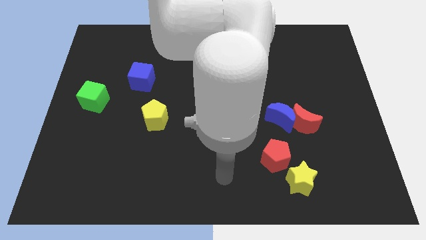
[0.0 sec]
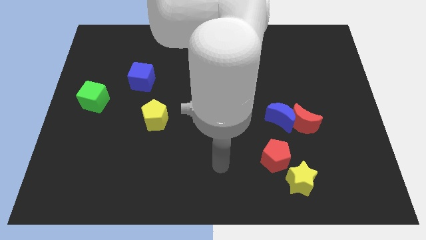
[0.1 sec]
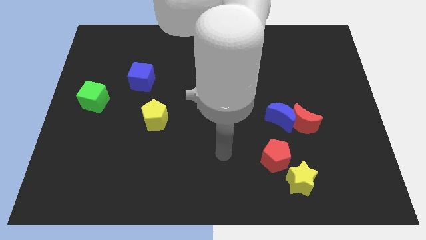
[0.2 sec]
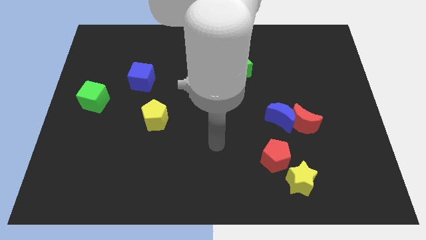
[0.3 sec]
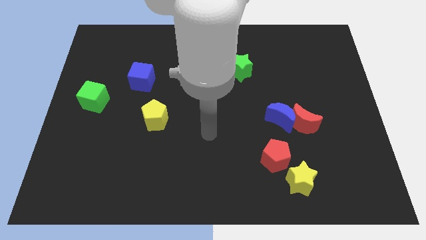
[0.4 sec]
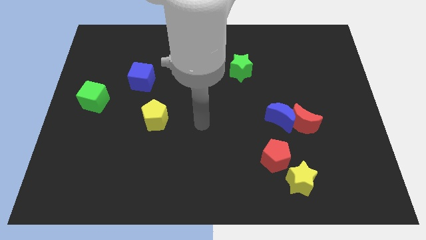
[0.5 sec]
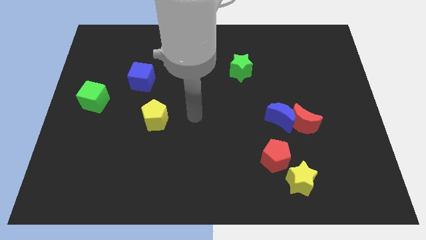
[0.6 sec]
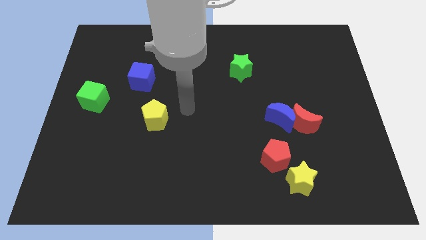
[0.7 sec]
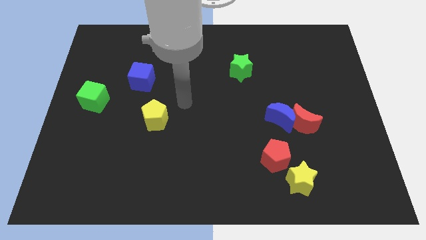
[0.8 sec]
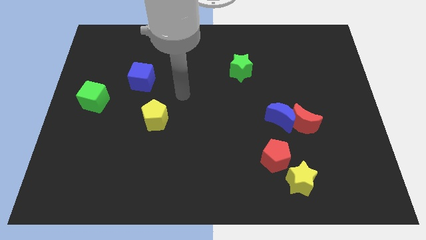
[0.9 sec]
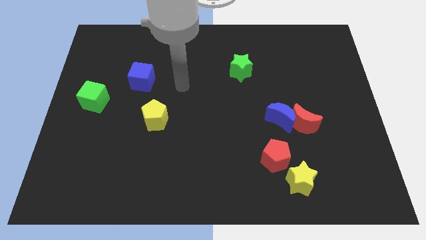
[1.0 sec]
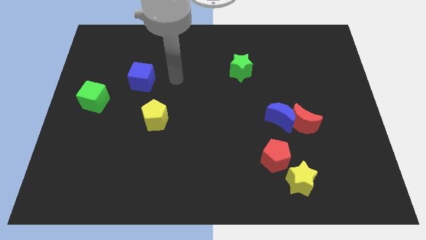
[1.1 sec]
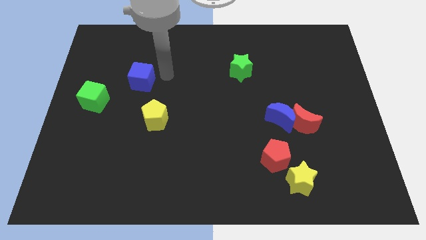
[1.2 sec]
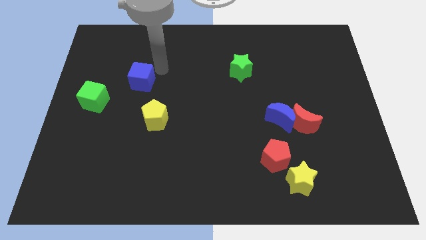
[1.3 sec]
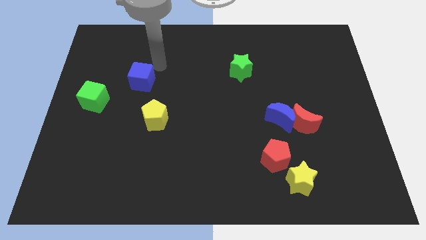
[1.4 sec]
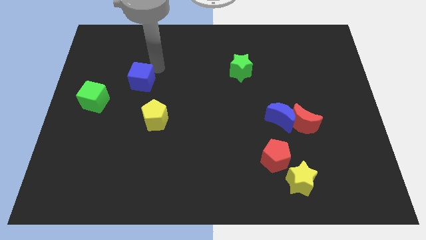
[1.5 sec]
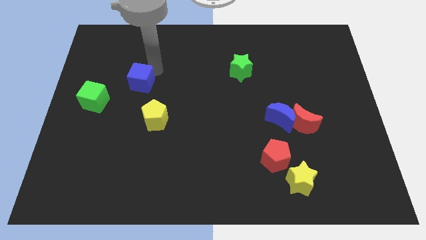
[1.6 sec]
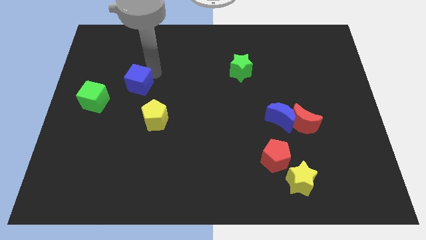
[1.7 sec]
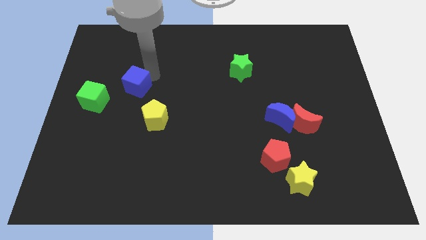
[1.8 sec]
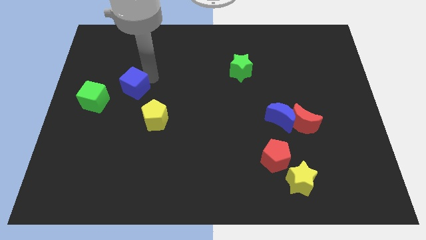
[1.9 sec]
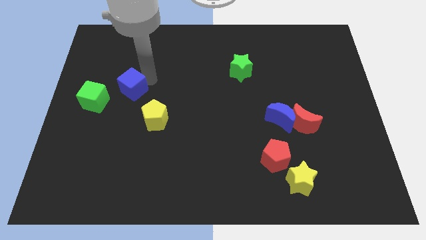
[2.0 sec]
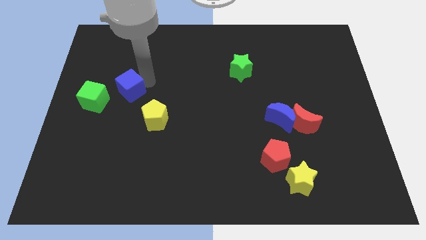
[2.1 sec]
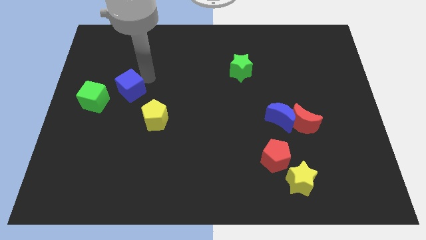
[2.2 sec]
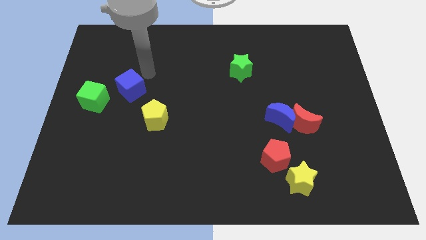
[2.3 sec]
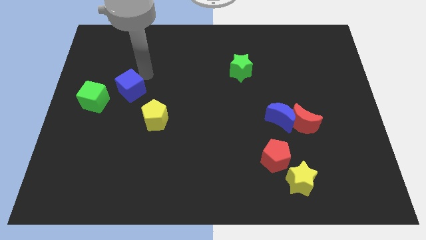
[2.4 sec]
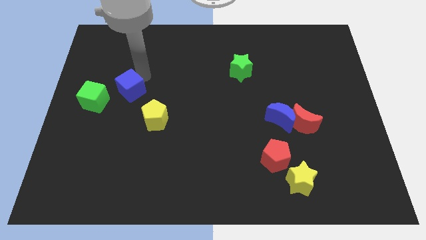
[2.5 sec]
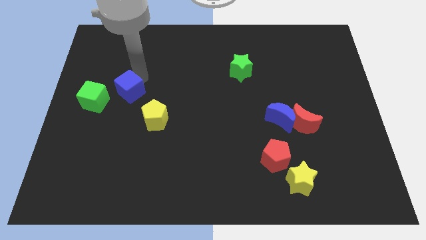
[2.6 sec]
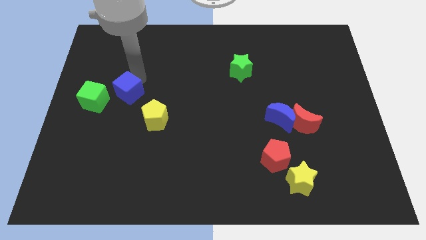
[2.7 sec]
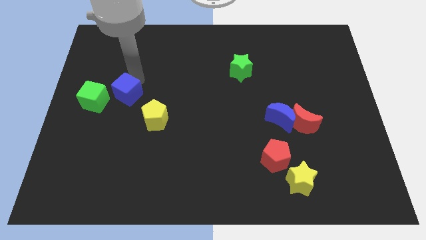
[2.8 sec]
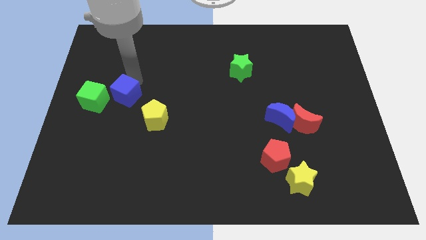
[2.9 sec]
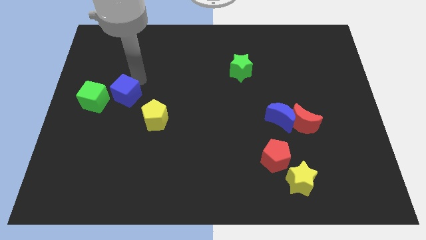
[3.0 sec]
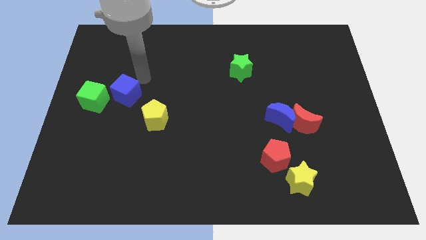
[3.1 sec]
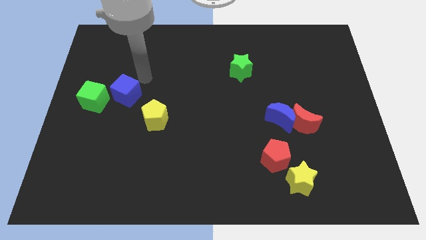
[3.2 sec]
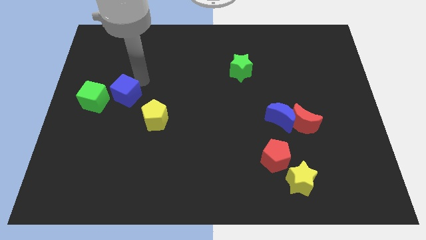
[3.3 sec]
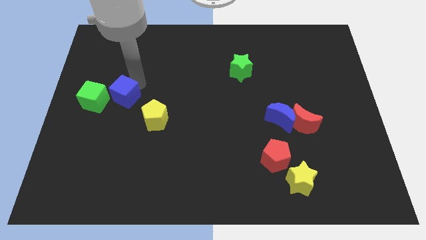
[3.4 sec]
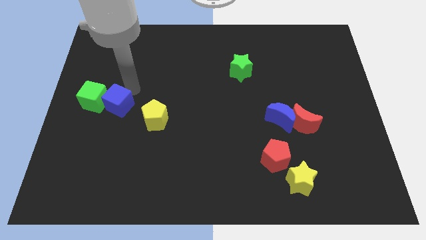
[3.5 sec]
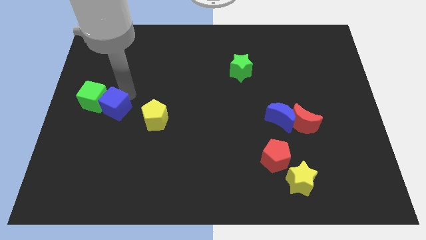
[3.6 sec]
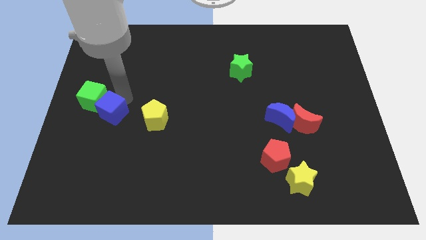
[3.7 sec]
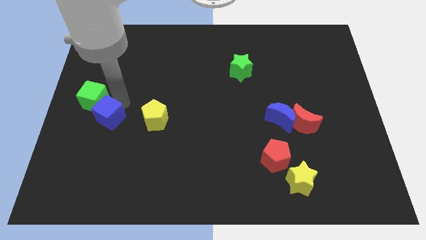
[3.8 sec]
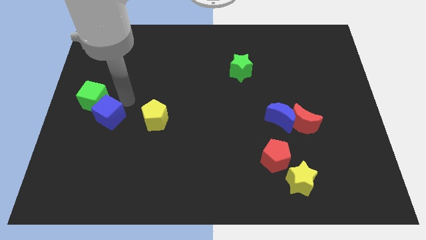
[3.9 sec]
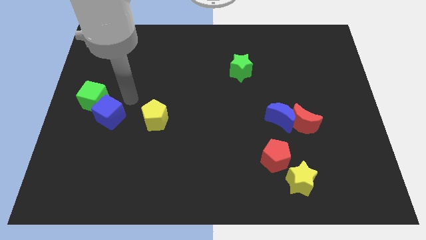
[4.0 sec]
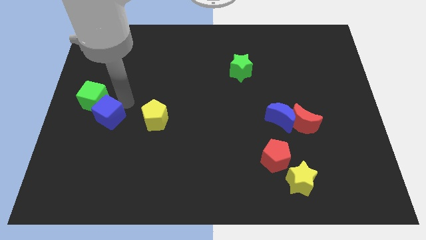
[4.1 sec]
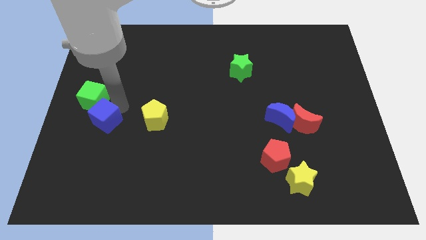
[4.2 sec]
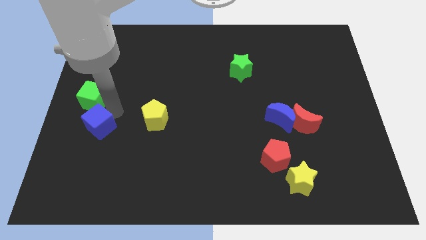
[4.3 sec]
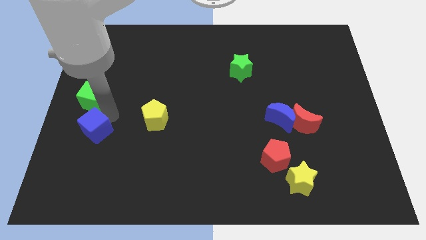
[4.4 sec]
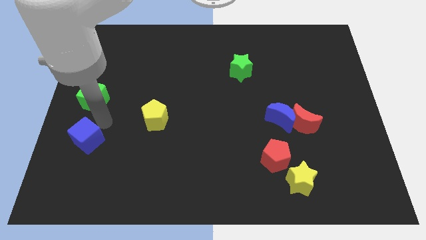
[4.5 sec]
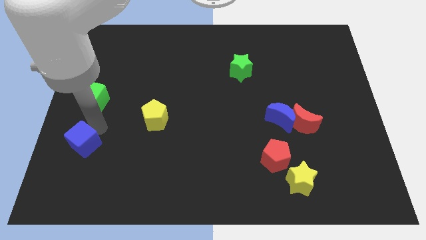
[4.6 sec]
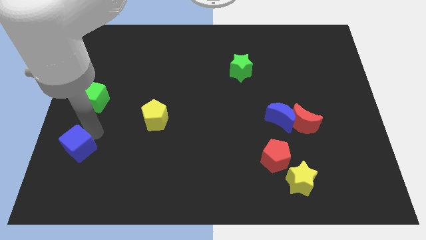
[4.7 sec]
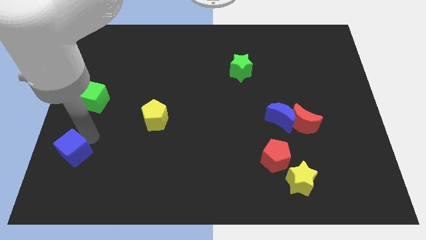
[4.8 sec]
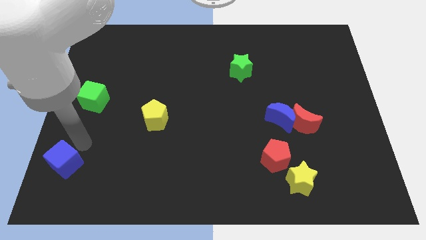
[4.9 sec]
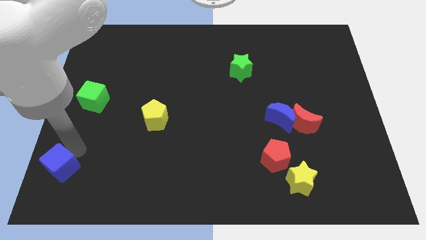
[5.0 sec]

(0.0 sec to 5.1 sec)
slide the blue cube to the bottom left of the board
